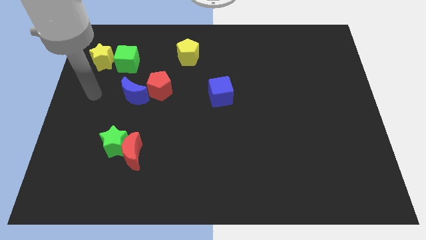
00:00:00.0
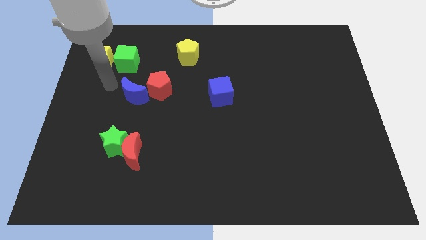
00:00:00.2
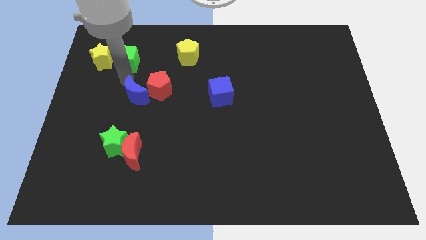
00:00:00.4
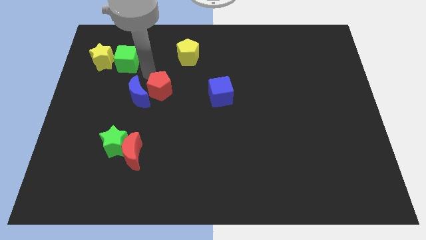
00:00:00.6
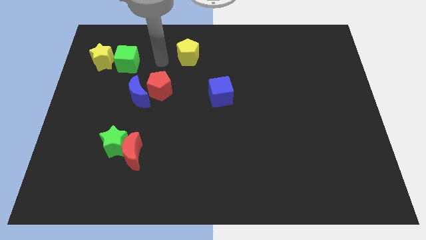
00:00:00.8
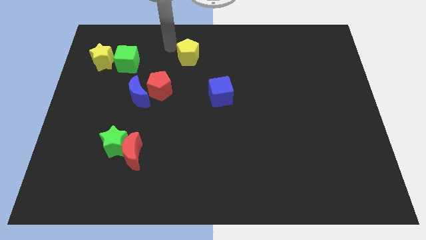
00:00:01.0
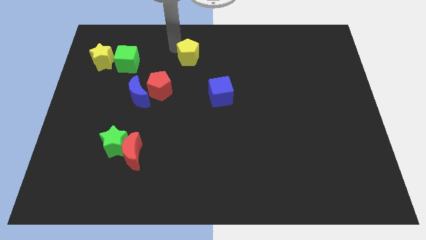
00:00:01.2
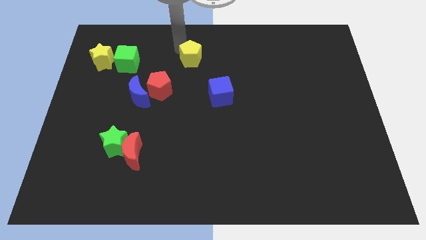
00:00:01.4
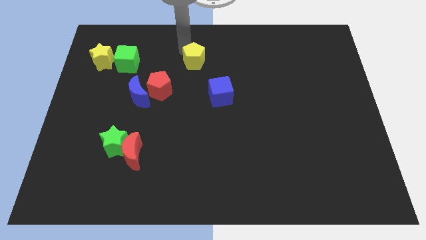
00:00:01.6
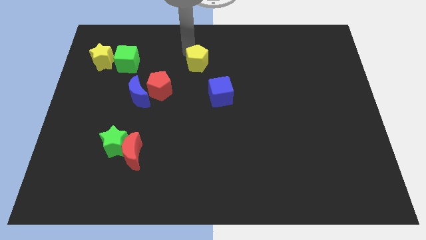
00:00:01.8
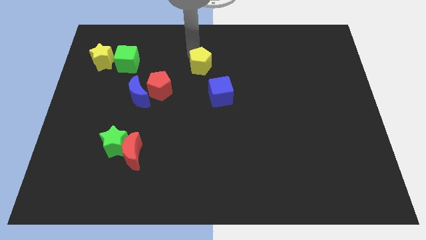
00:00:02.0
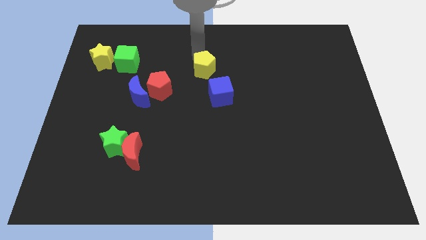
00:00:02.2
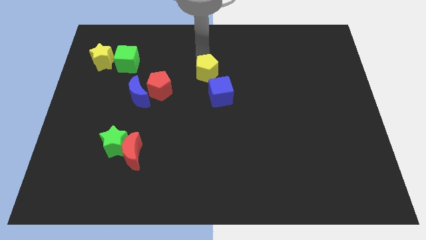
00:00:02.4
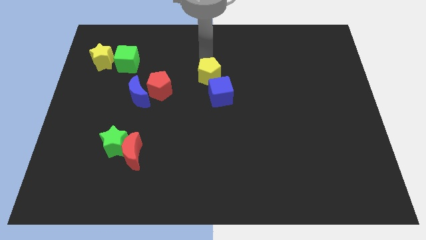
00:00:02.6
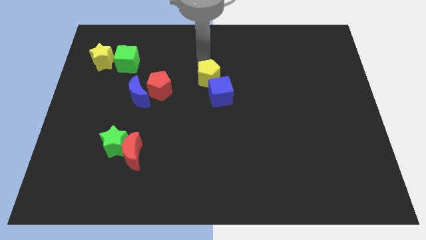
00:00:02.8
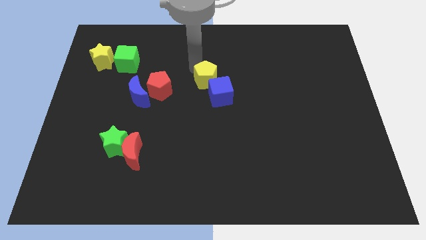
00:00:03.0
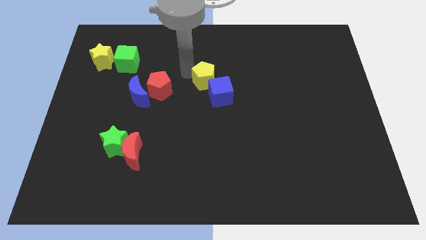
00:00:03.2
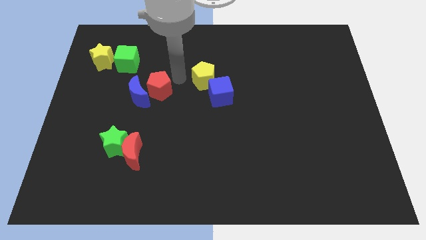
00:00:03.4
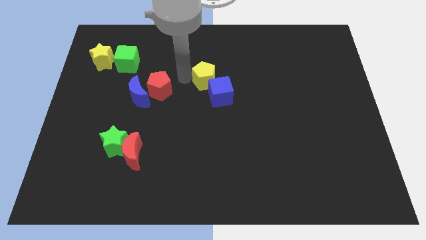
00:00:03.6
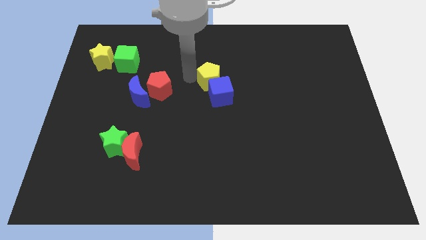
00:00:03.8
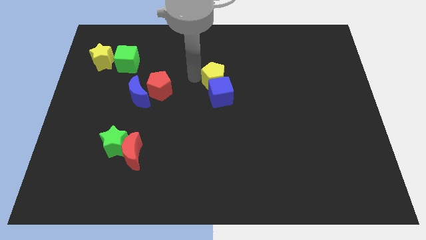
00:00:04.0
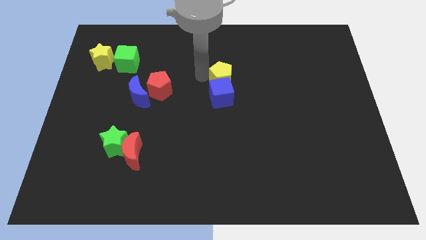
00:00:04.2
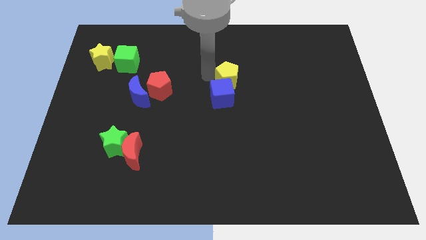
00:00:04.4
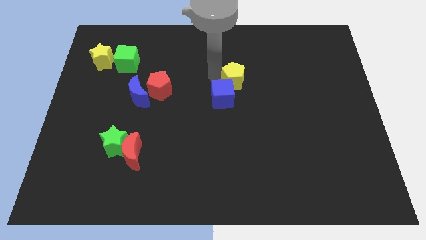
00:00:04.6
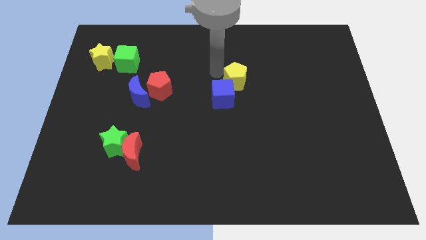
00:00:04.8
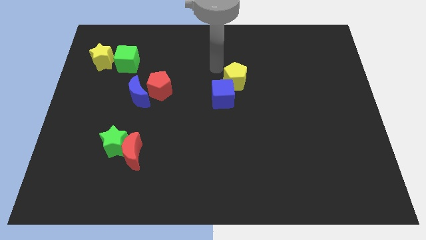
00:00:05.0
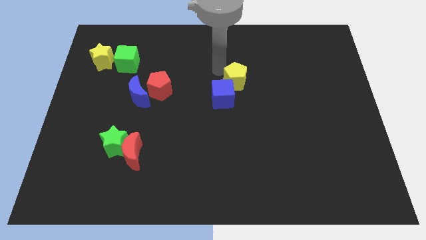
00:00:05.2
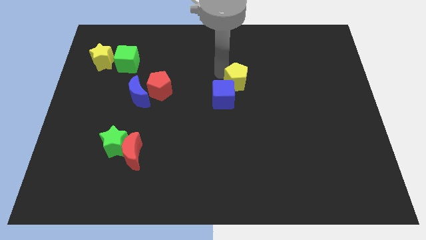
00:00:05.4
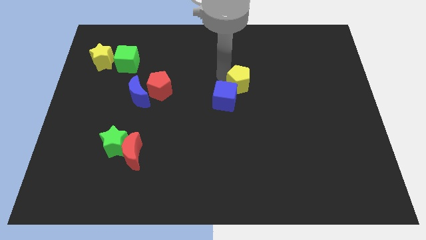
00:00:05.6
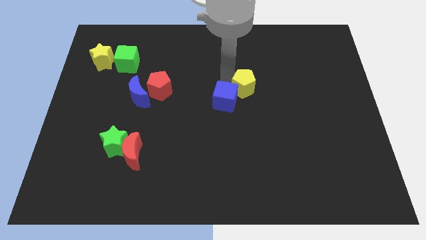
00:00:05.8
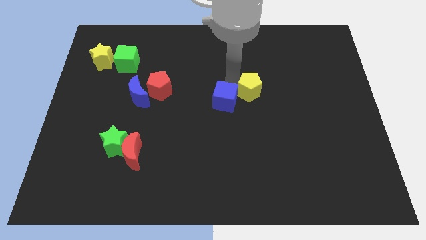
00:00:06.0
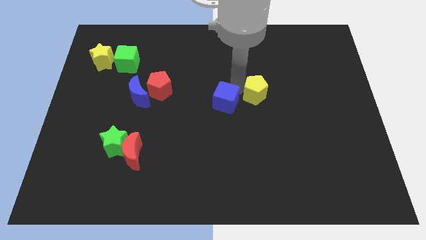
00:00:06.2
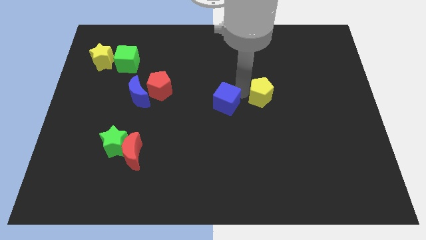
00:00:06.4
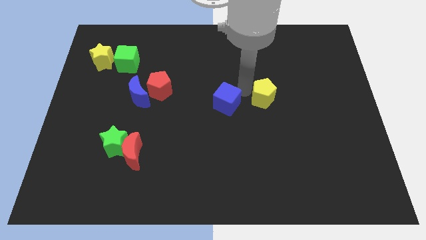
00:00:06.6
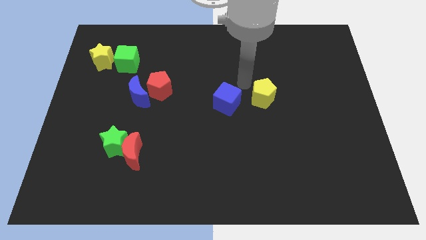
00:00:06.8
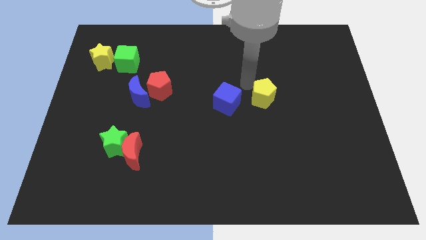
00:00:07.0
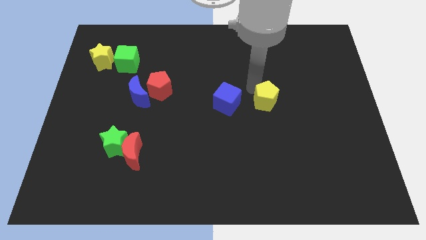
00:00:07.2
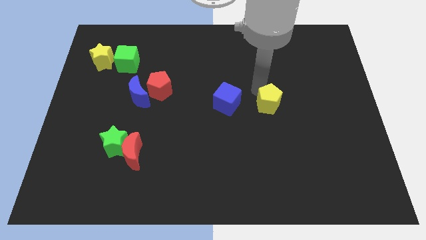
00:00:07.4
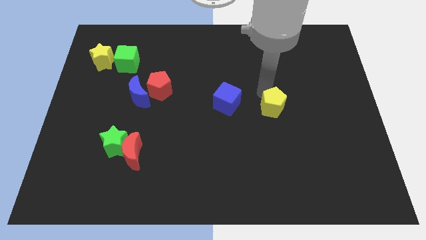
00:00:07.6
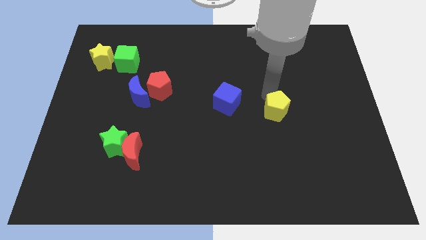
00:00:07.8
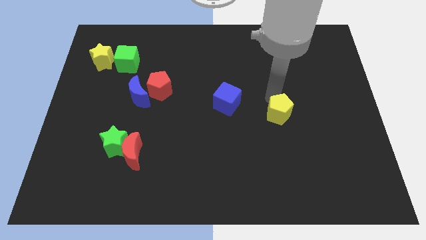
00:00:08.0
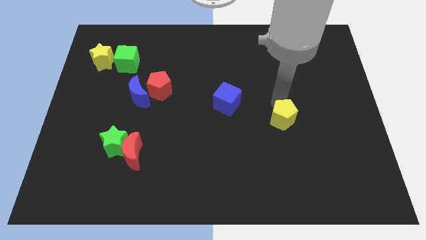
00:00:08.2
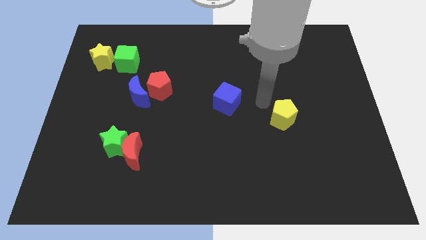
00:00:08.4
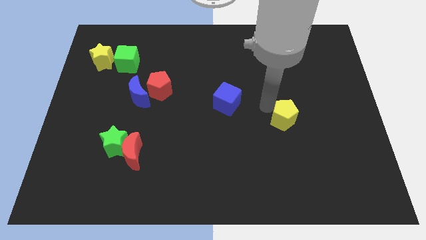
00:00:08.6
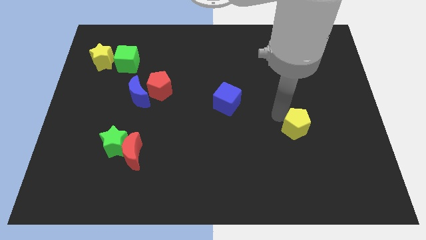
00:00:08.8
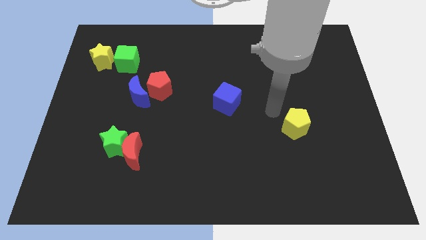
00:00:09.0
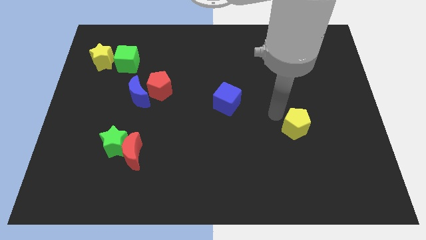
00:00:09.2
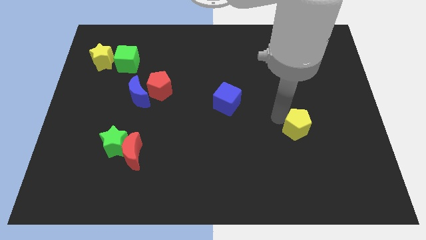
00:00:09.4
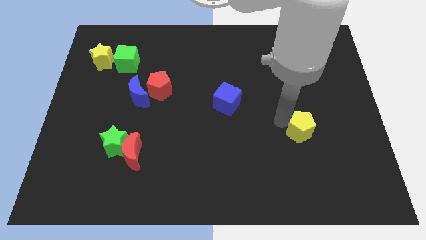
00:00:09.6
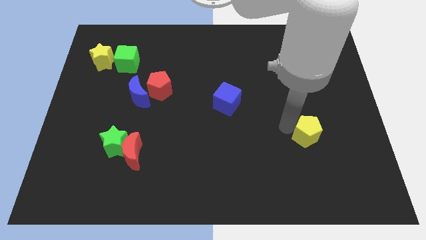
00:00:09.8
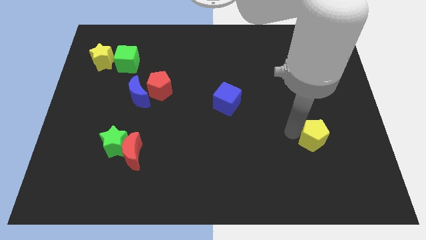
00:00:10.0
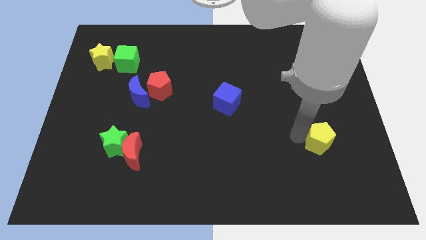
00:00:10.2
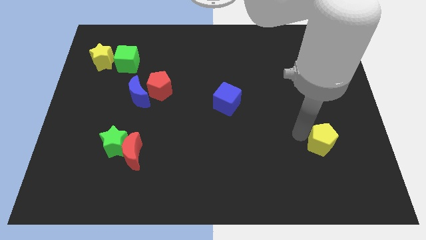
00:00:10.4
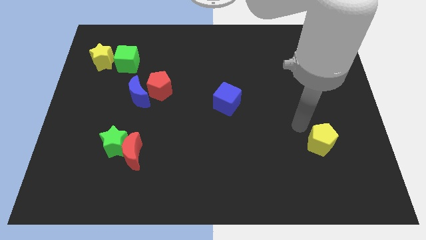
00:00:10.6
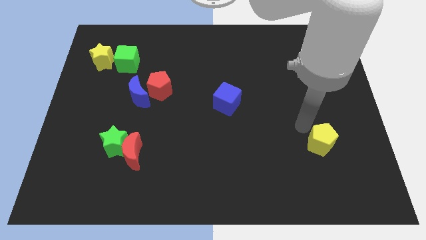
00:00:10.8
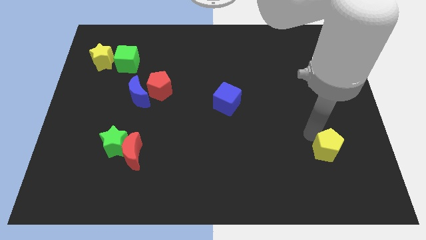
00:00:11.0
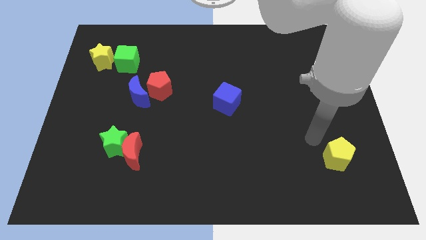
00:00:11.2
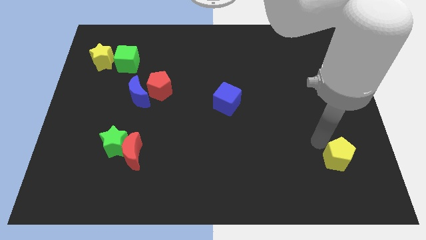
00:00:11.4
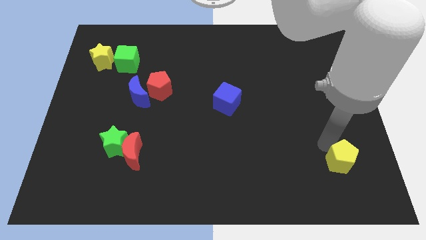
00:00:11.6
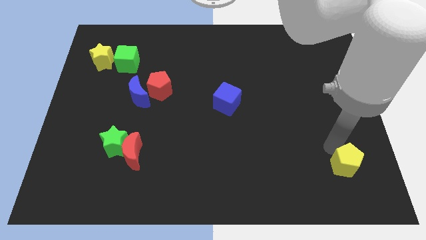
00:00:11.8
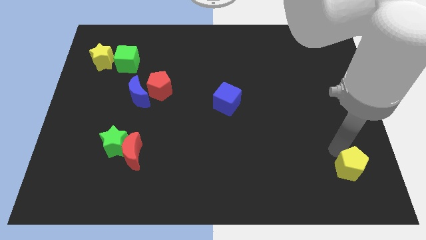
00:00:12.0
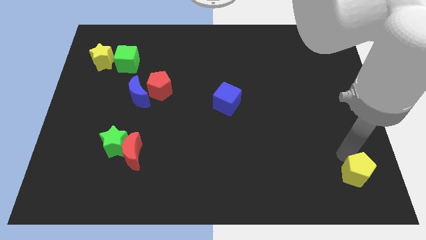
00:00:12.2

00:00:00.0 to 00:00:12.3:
put the yellow pentagon to the bottom right
